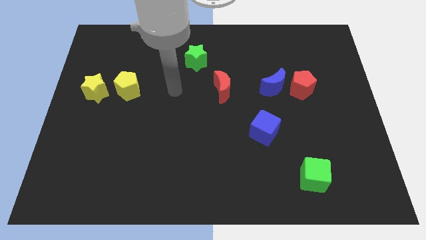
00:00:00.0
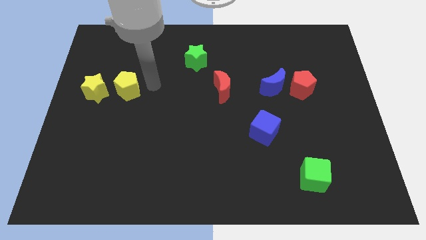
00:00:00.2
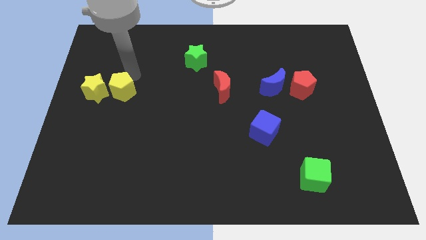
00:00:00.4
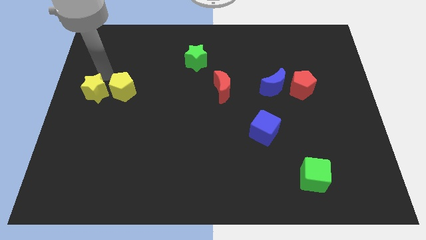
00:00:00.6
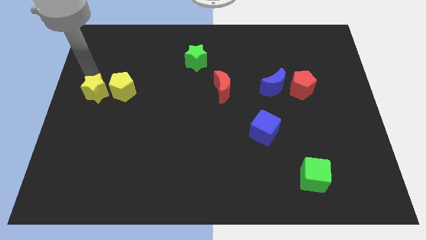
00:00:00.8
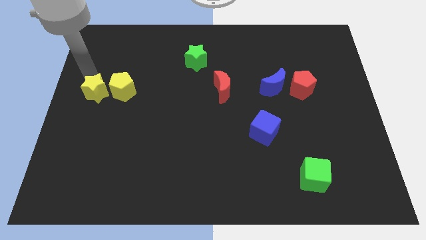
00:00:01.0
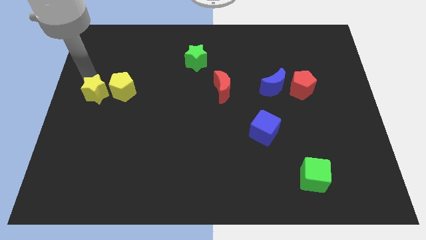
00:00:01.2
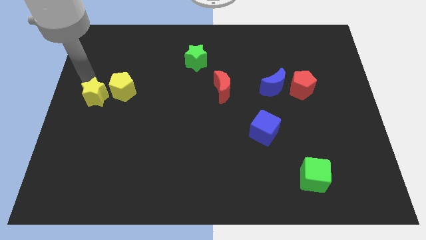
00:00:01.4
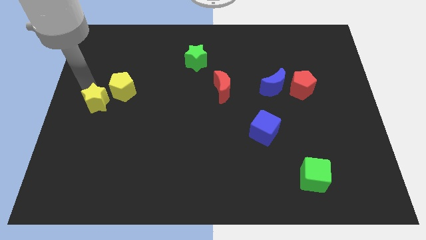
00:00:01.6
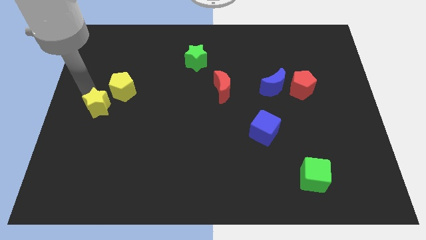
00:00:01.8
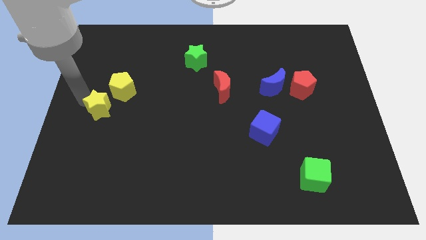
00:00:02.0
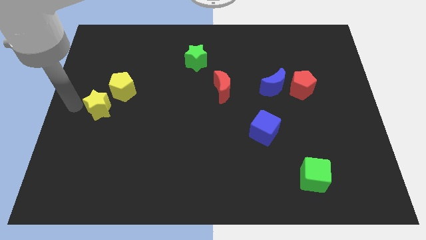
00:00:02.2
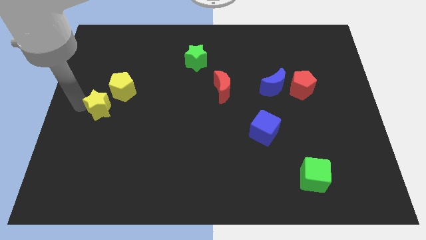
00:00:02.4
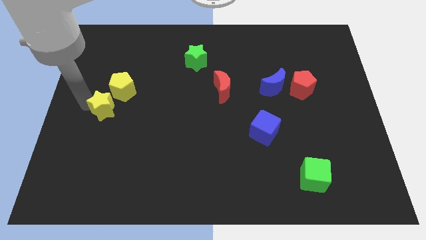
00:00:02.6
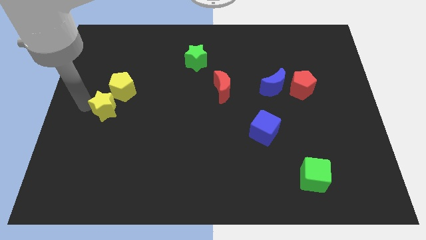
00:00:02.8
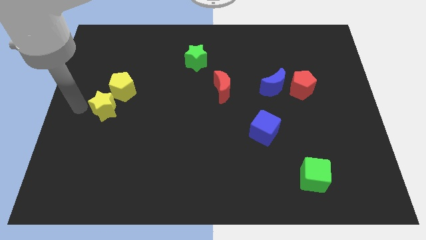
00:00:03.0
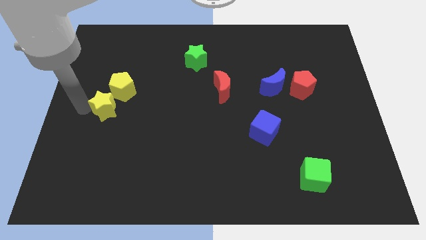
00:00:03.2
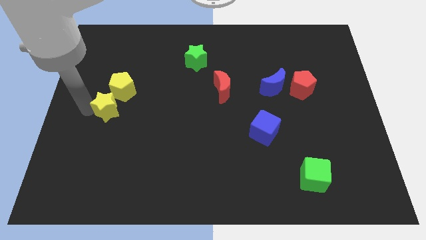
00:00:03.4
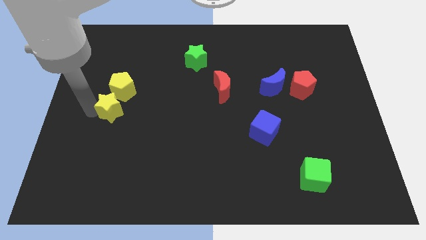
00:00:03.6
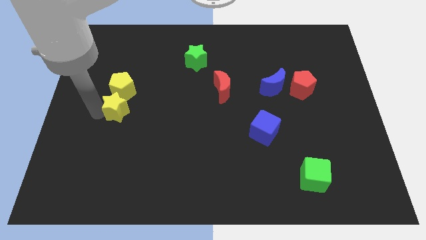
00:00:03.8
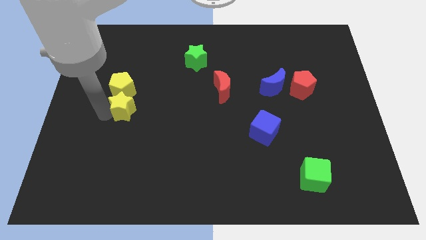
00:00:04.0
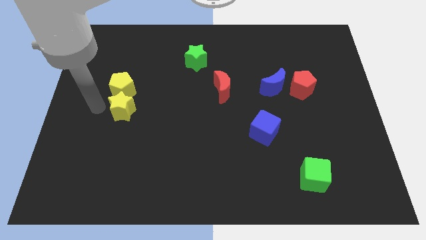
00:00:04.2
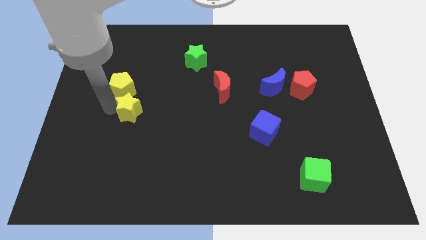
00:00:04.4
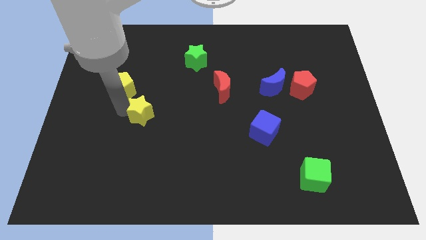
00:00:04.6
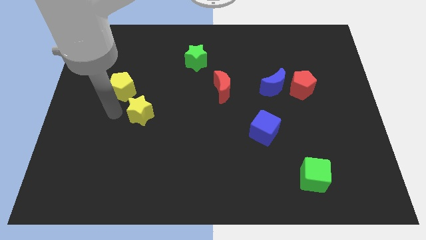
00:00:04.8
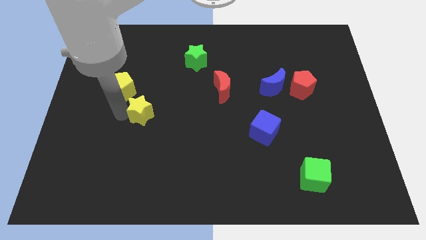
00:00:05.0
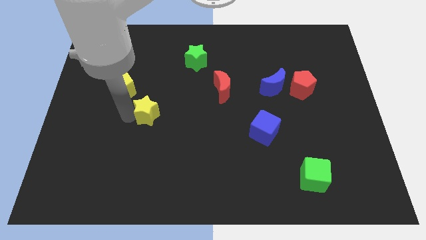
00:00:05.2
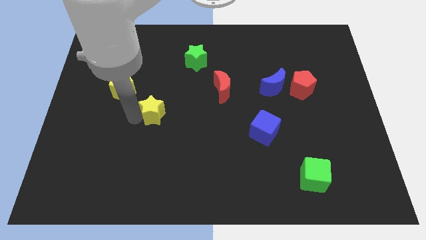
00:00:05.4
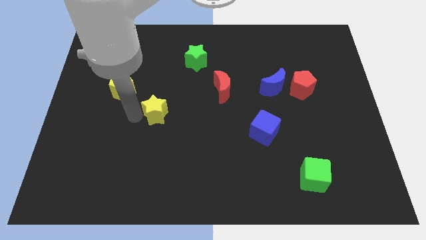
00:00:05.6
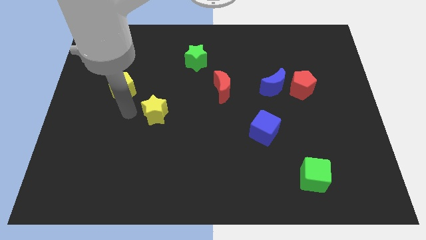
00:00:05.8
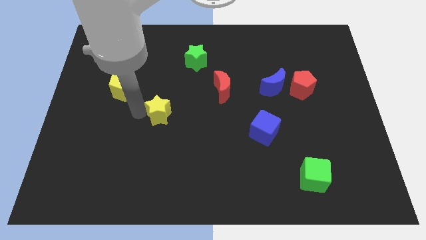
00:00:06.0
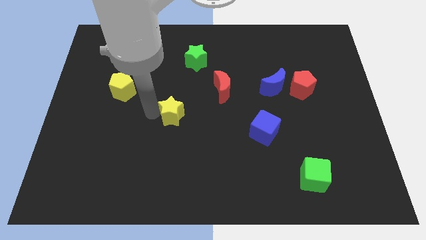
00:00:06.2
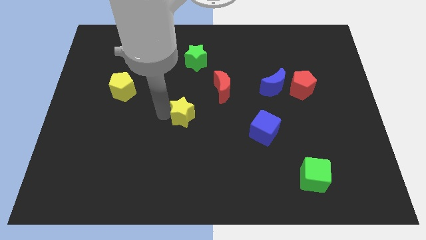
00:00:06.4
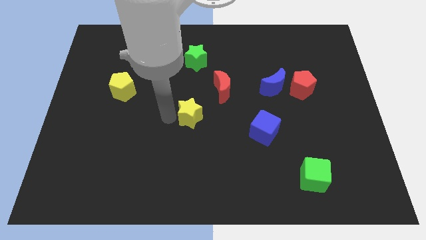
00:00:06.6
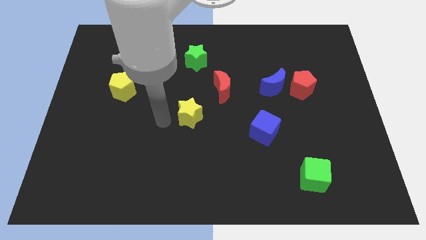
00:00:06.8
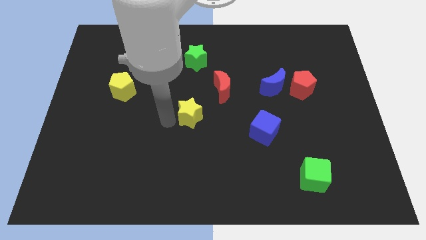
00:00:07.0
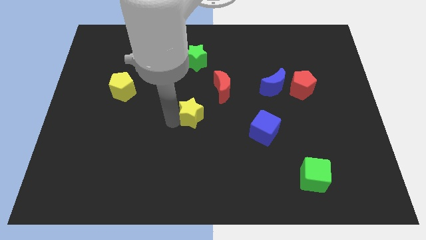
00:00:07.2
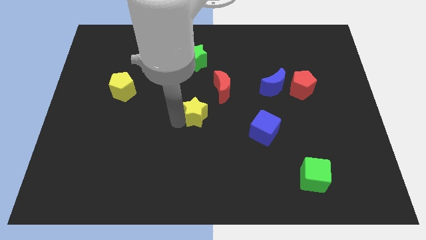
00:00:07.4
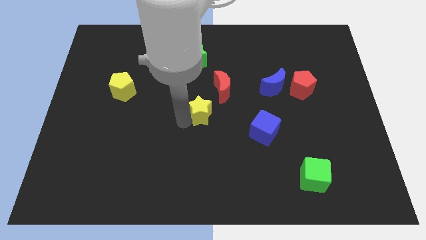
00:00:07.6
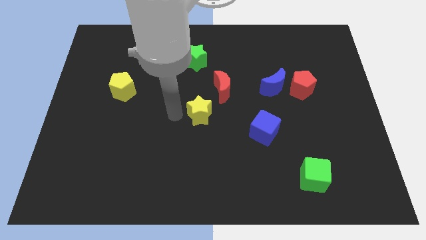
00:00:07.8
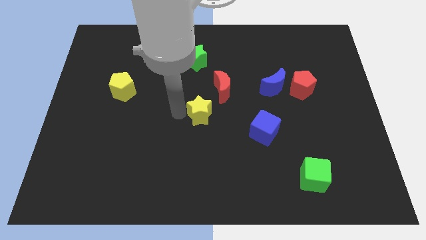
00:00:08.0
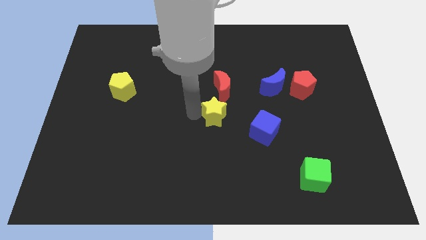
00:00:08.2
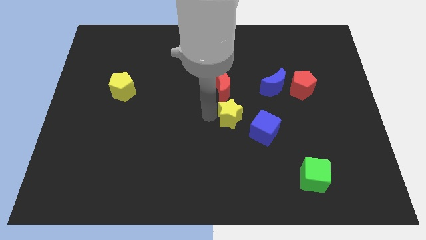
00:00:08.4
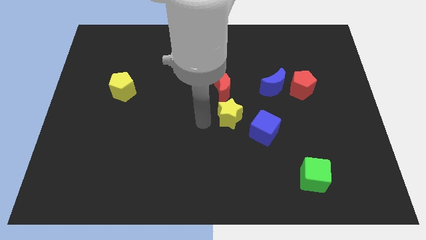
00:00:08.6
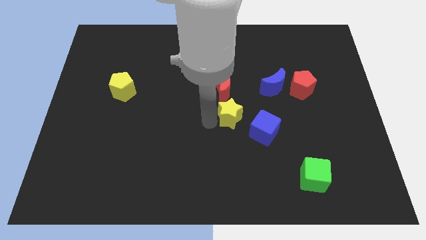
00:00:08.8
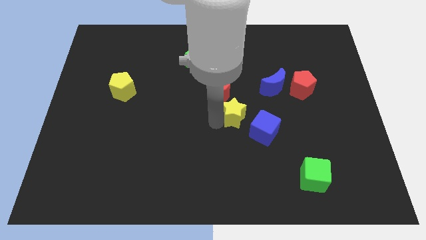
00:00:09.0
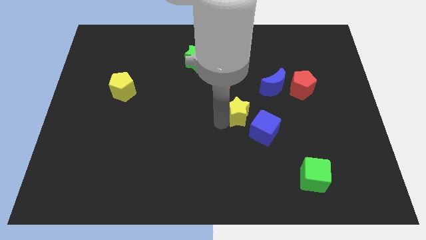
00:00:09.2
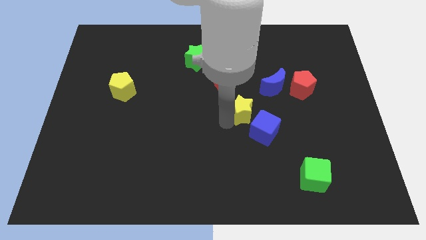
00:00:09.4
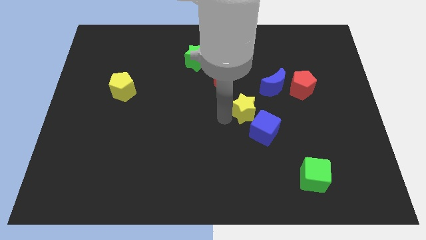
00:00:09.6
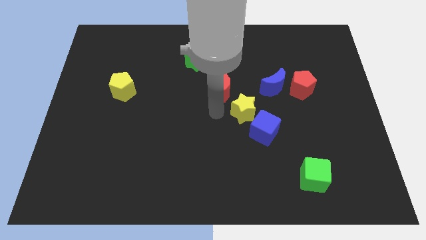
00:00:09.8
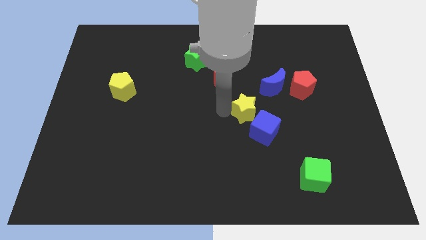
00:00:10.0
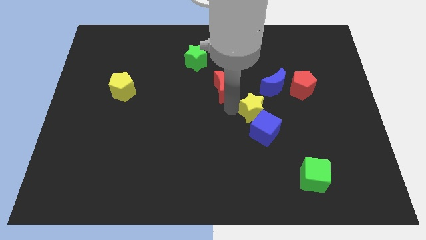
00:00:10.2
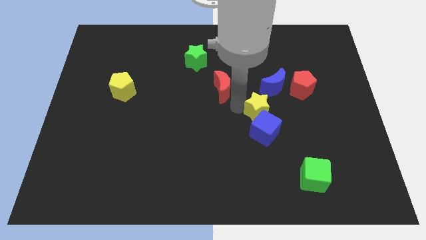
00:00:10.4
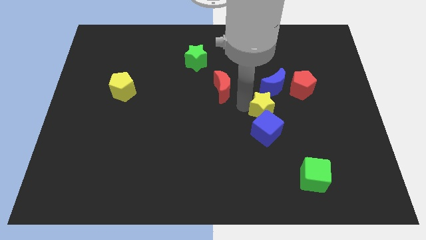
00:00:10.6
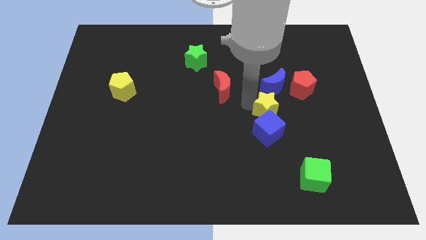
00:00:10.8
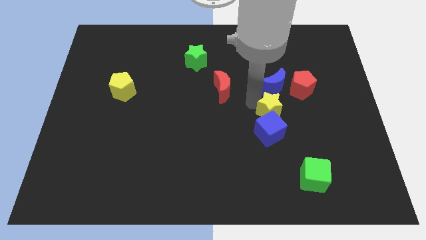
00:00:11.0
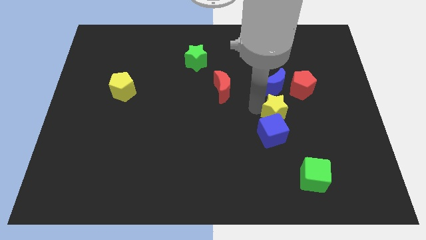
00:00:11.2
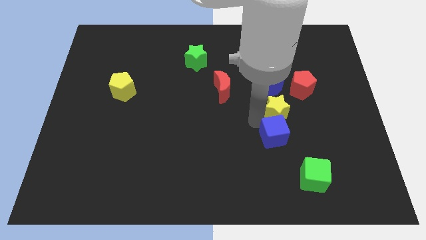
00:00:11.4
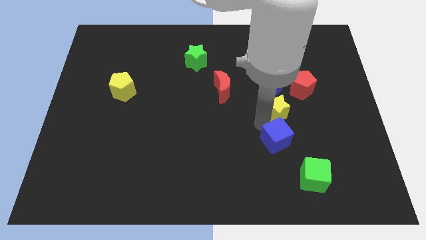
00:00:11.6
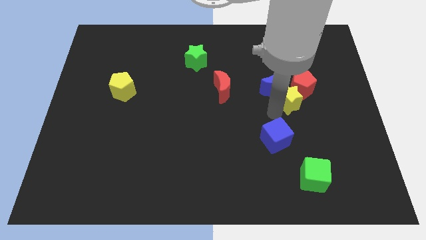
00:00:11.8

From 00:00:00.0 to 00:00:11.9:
move the yellow star next to the red pentagon

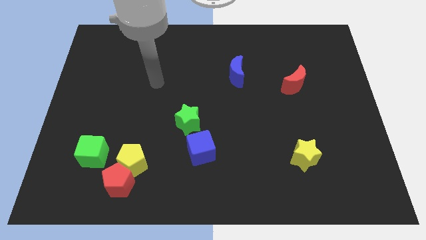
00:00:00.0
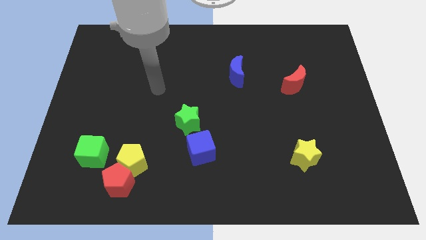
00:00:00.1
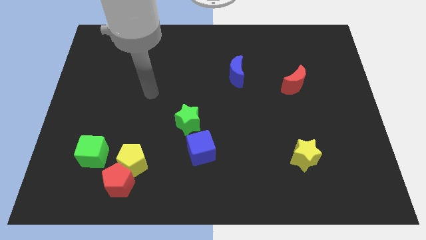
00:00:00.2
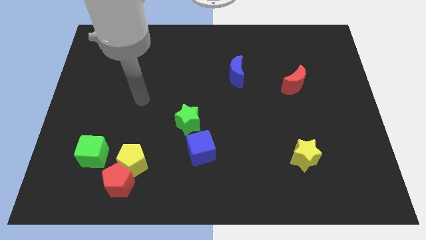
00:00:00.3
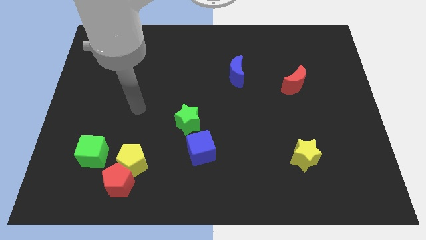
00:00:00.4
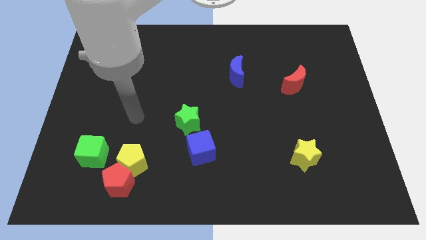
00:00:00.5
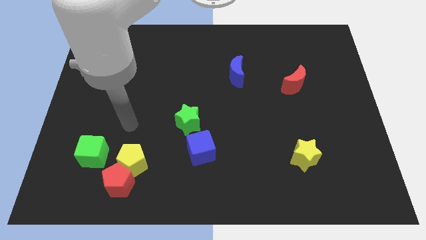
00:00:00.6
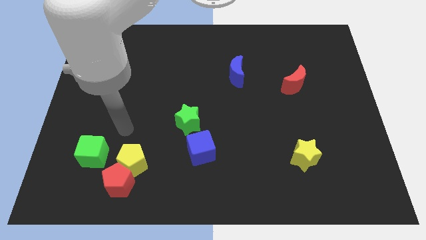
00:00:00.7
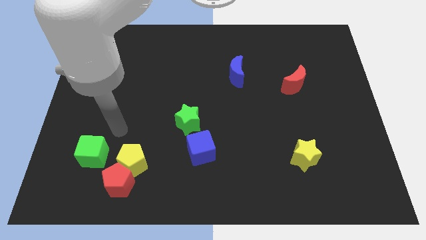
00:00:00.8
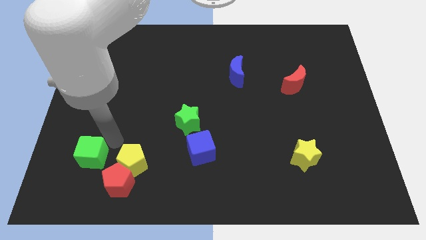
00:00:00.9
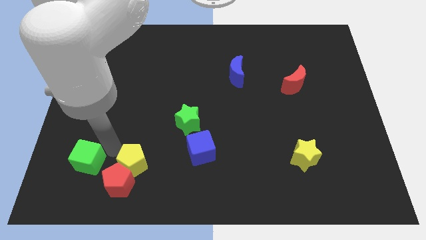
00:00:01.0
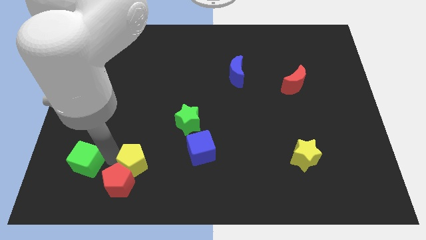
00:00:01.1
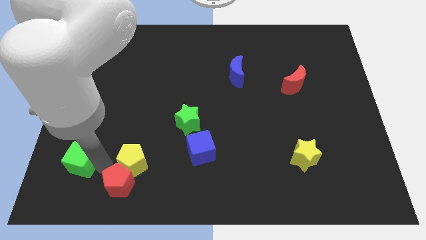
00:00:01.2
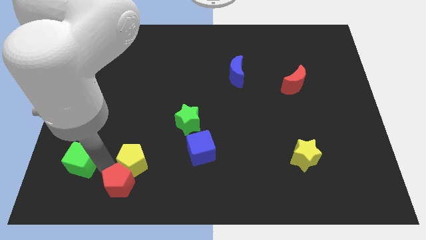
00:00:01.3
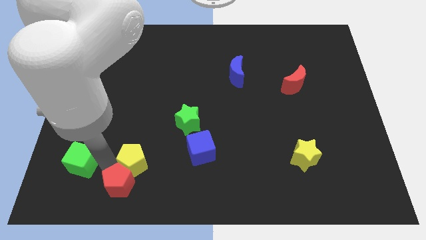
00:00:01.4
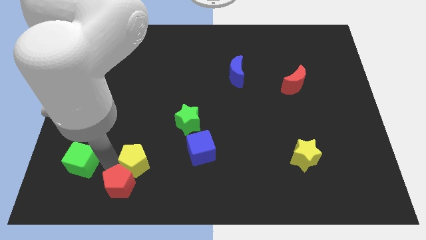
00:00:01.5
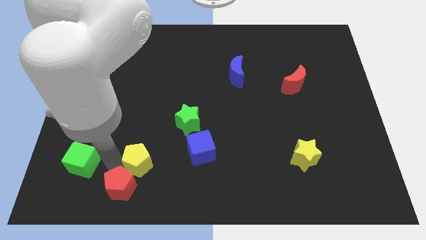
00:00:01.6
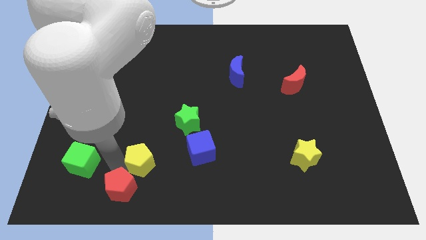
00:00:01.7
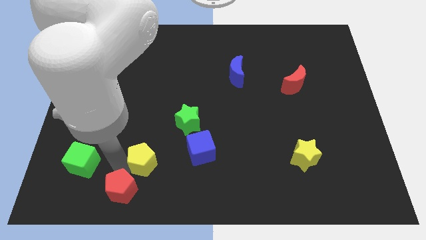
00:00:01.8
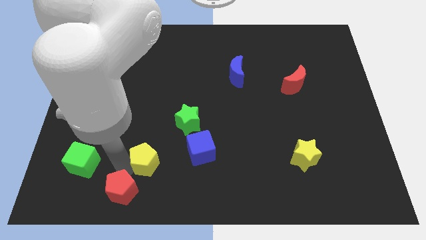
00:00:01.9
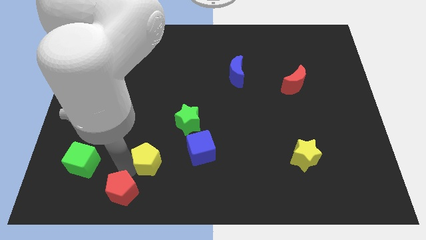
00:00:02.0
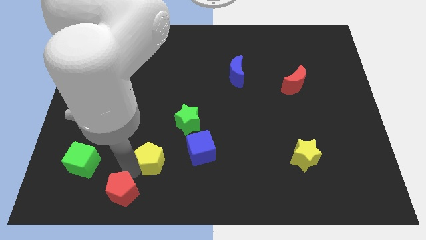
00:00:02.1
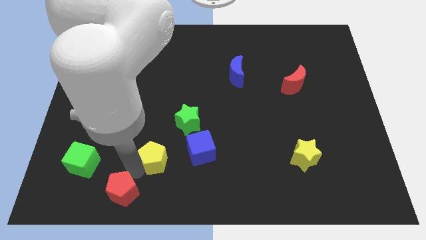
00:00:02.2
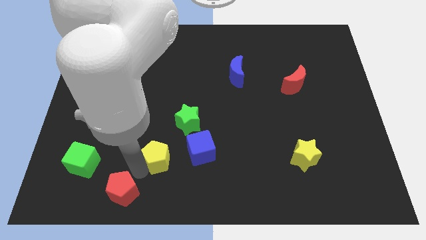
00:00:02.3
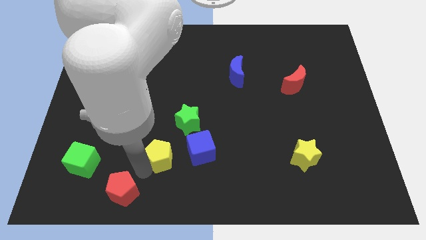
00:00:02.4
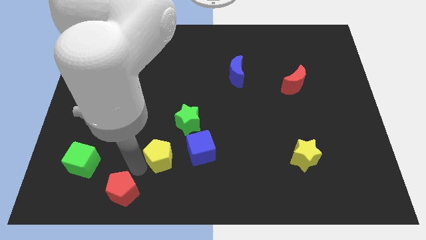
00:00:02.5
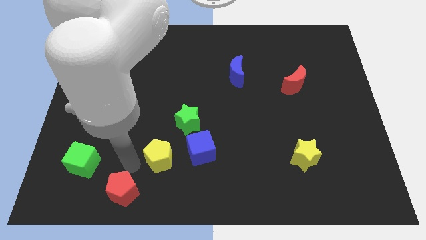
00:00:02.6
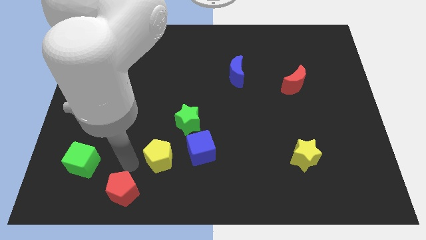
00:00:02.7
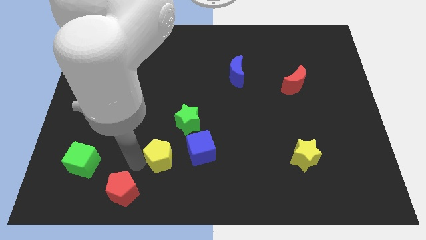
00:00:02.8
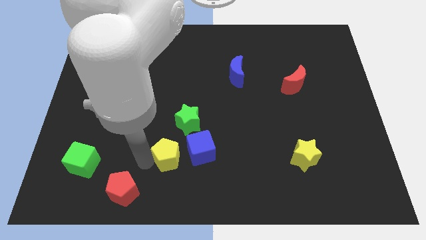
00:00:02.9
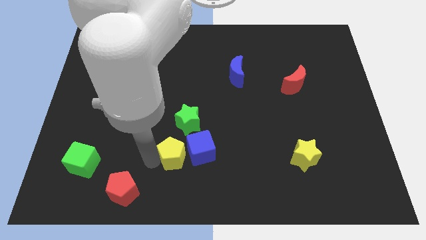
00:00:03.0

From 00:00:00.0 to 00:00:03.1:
move the yellow pentagon next to the blue cube
